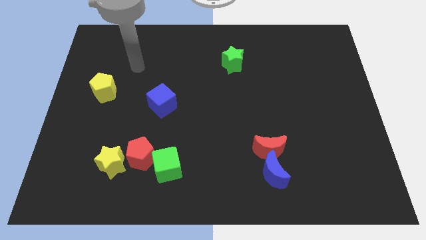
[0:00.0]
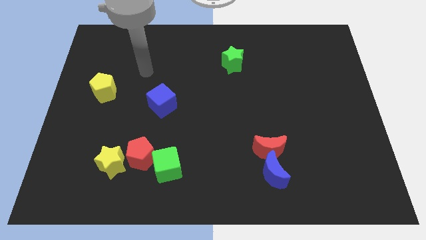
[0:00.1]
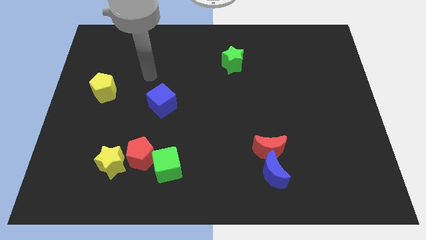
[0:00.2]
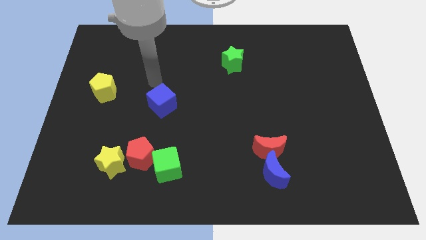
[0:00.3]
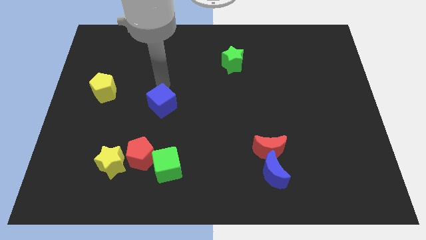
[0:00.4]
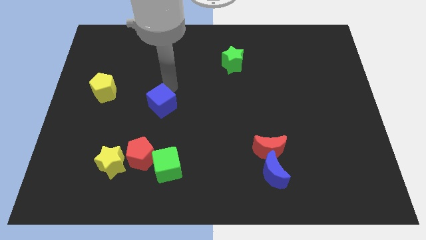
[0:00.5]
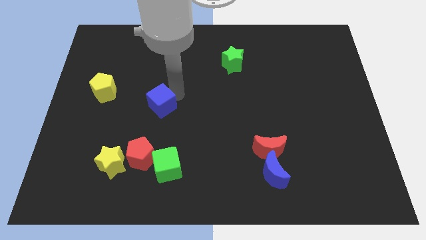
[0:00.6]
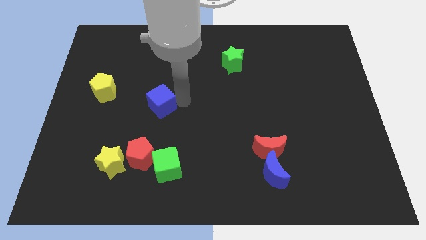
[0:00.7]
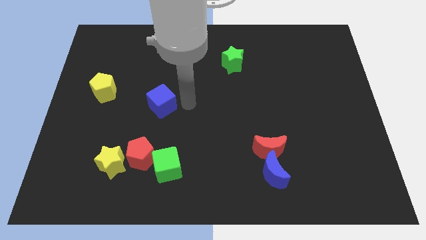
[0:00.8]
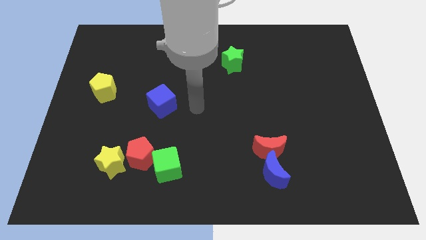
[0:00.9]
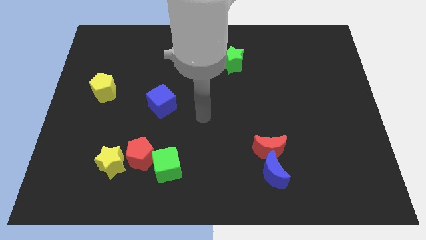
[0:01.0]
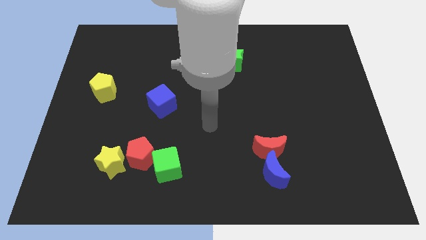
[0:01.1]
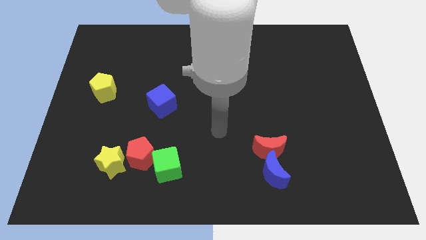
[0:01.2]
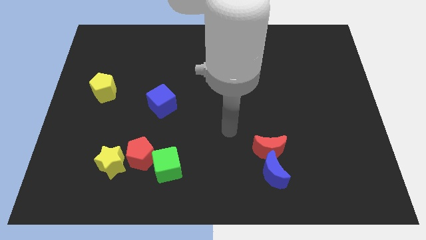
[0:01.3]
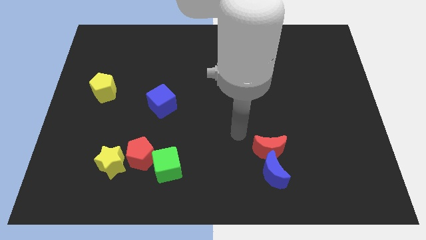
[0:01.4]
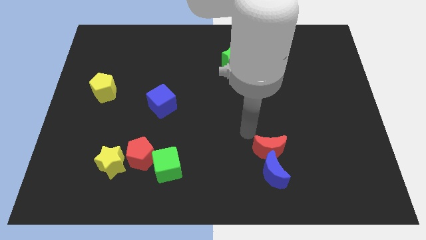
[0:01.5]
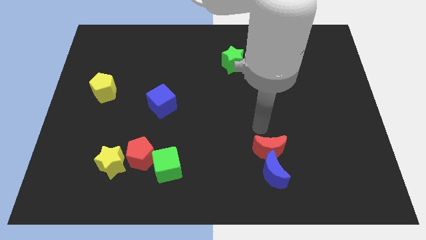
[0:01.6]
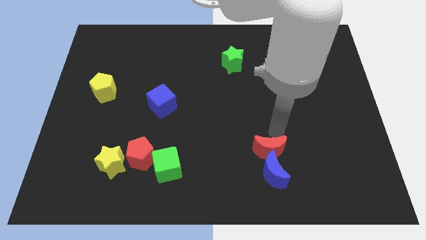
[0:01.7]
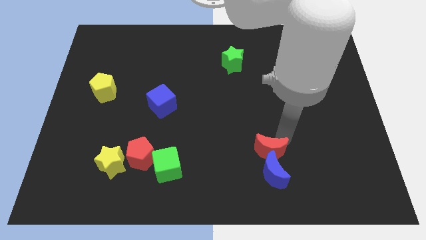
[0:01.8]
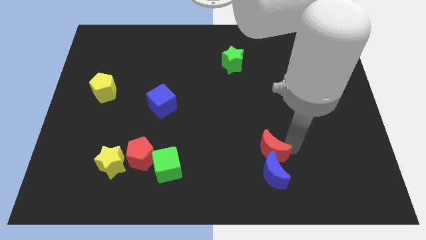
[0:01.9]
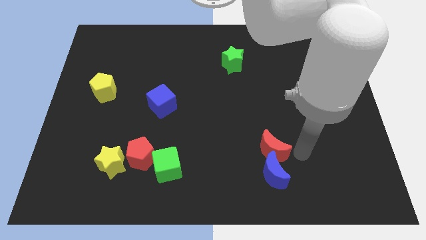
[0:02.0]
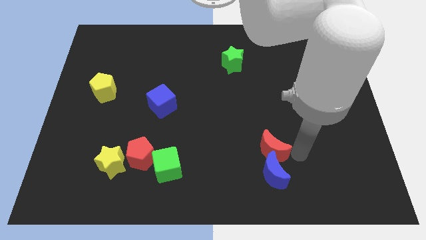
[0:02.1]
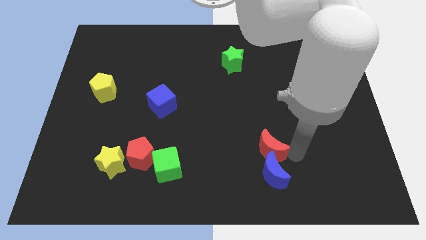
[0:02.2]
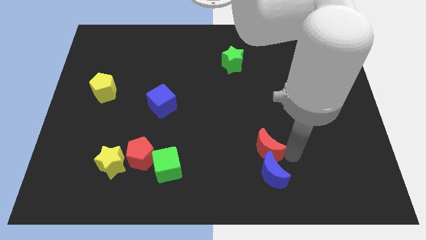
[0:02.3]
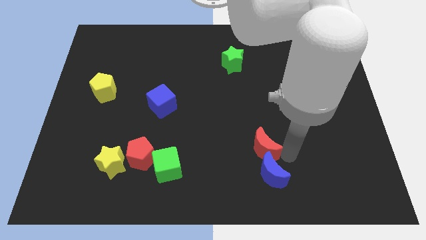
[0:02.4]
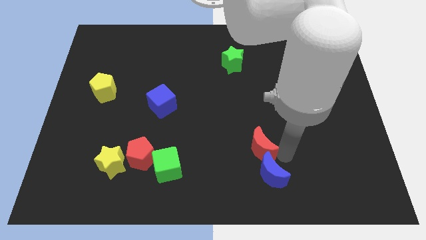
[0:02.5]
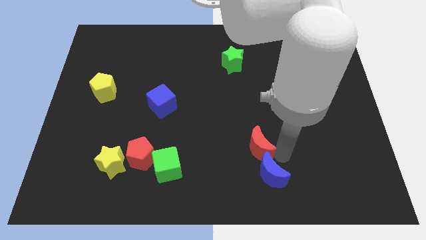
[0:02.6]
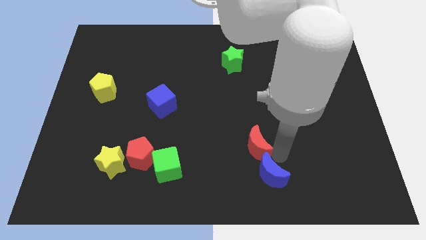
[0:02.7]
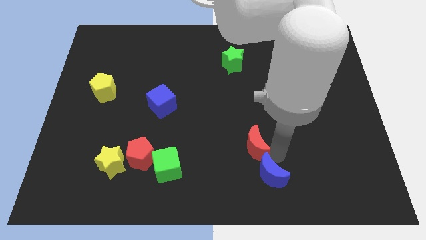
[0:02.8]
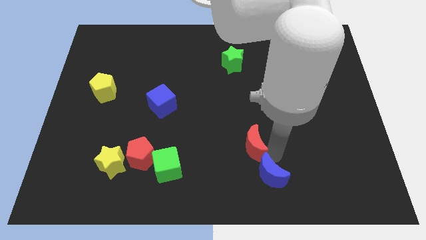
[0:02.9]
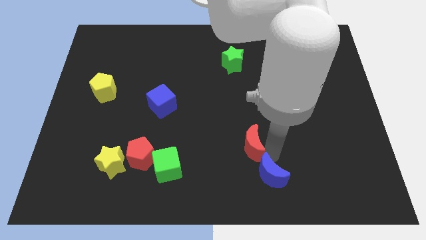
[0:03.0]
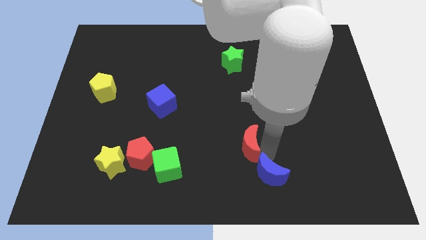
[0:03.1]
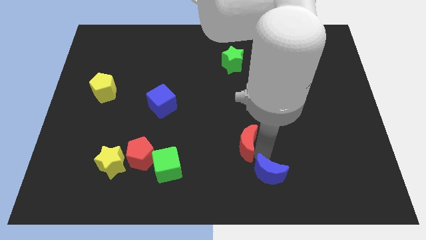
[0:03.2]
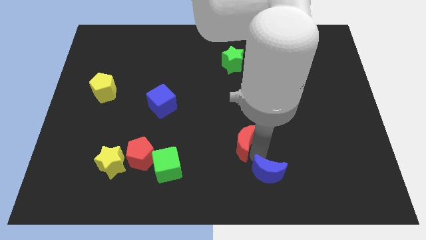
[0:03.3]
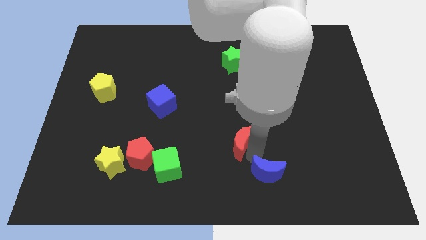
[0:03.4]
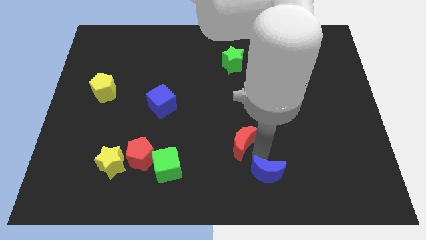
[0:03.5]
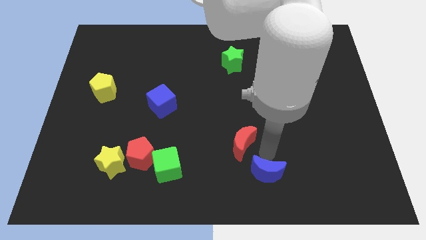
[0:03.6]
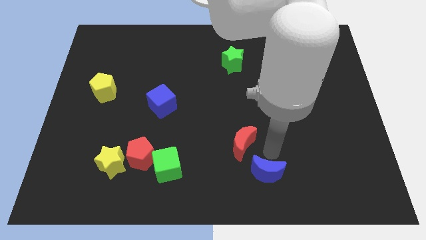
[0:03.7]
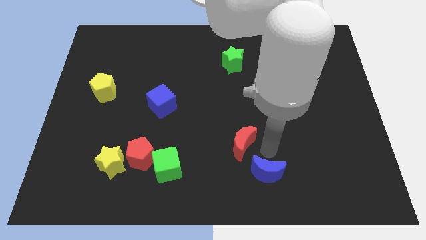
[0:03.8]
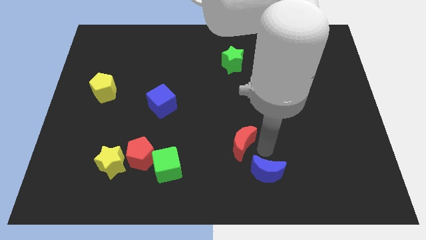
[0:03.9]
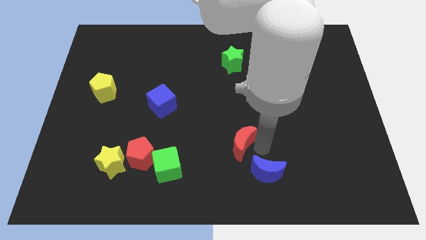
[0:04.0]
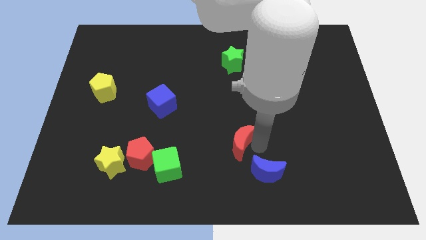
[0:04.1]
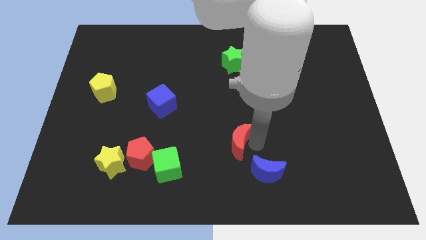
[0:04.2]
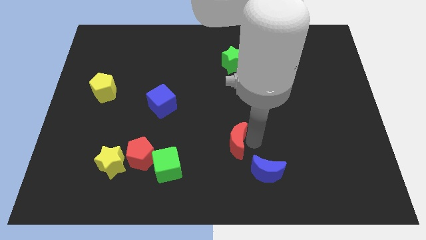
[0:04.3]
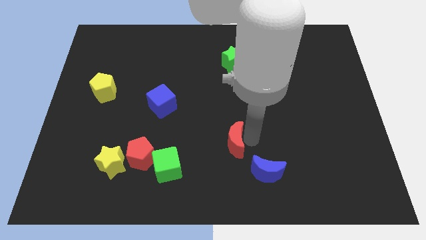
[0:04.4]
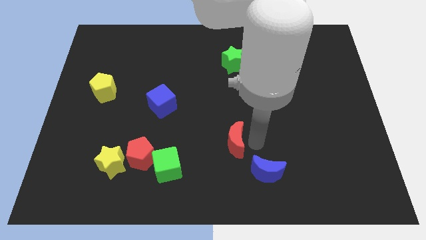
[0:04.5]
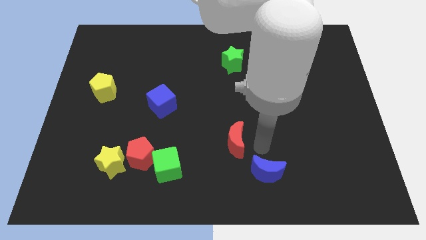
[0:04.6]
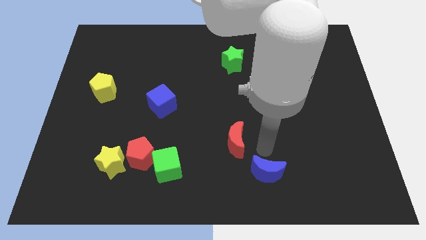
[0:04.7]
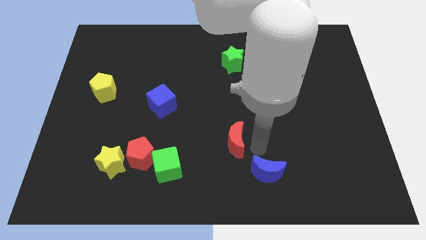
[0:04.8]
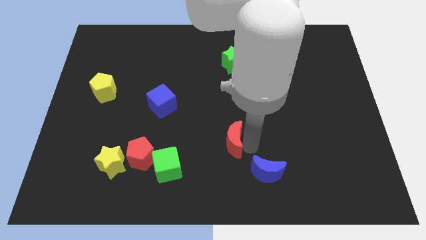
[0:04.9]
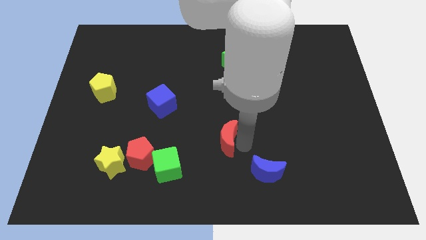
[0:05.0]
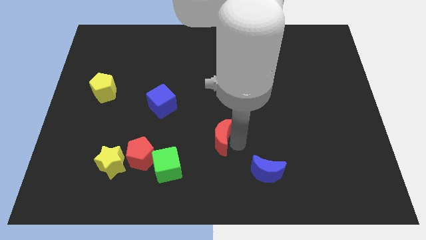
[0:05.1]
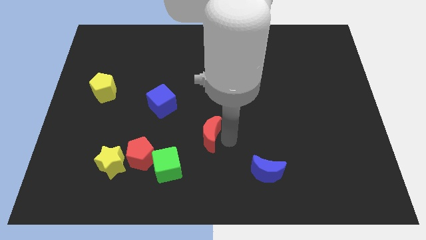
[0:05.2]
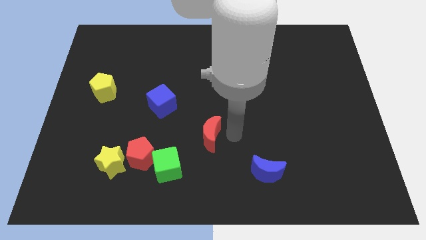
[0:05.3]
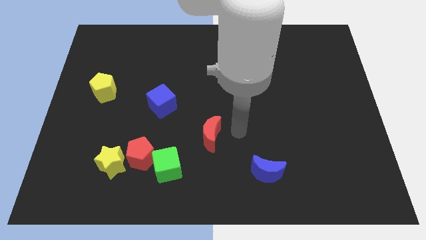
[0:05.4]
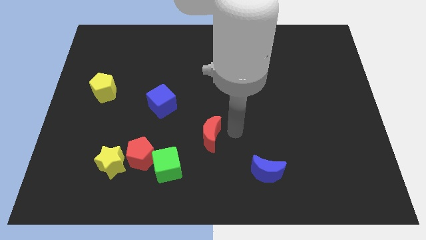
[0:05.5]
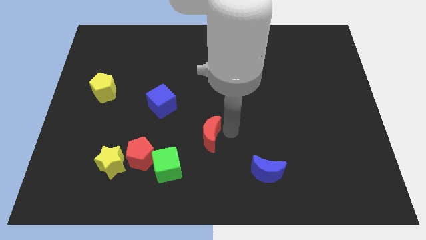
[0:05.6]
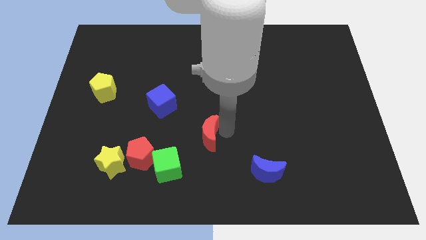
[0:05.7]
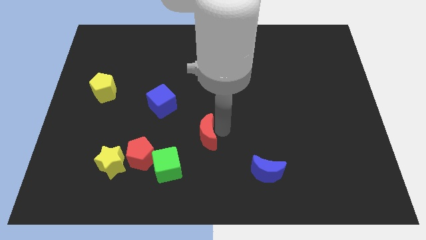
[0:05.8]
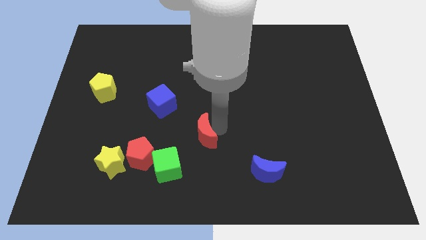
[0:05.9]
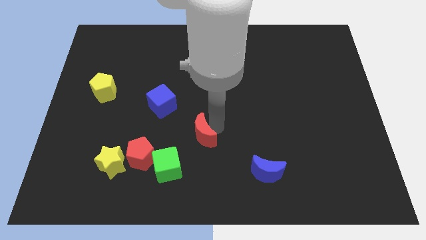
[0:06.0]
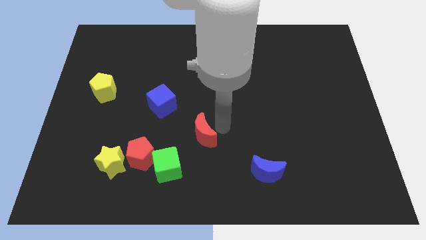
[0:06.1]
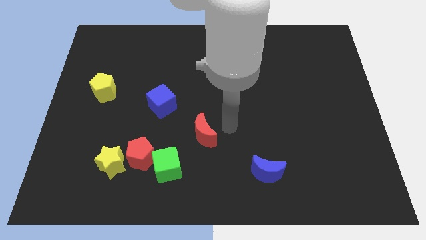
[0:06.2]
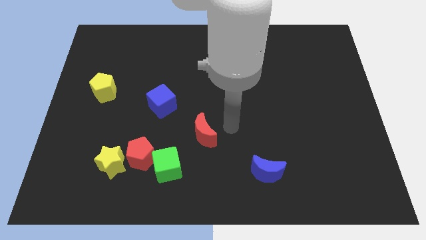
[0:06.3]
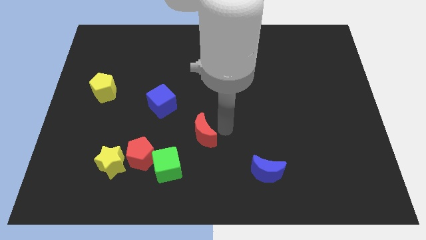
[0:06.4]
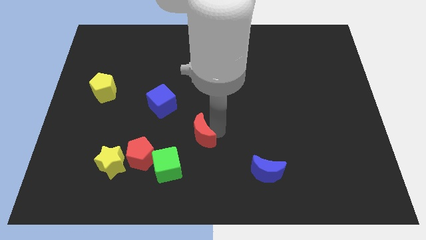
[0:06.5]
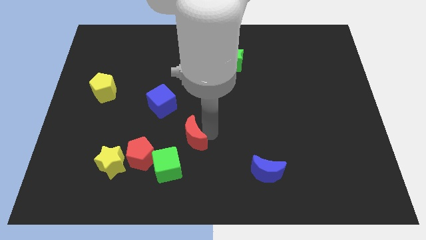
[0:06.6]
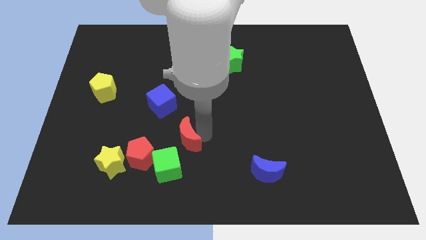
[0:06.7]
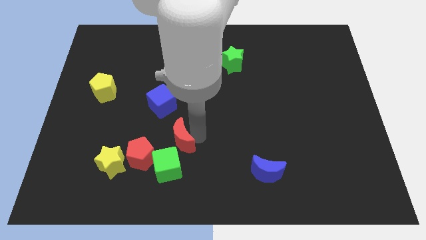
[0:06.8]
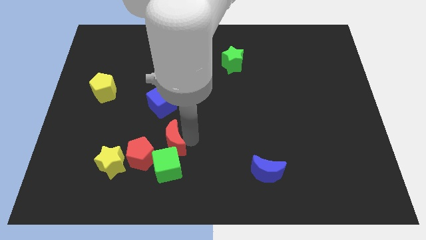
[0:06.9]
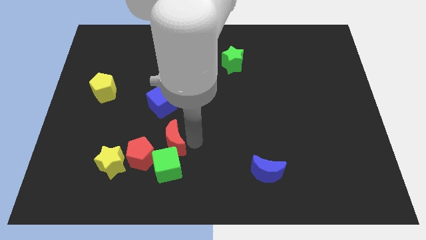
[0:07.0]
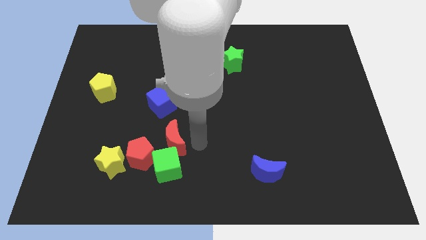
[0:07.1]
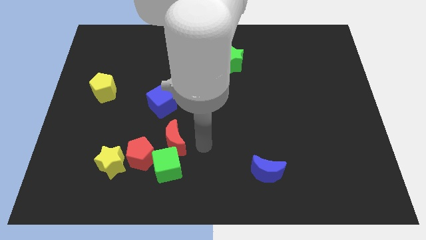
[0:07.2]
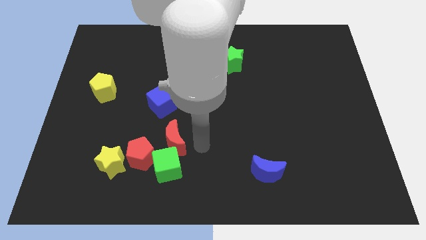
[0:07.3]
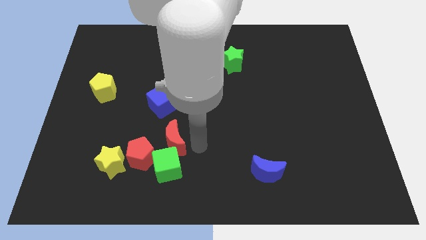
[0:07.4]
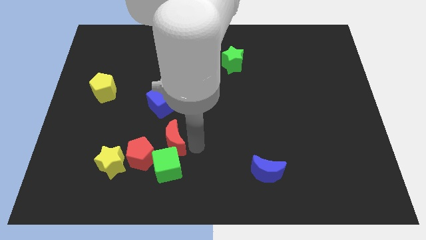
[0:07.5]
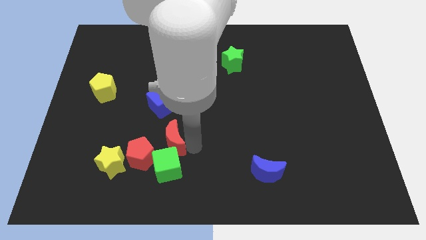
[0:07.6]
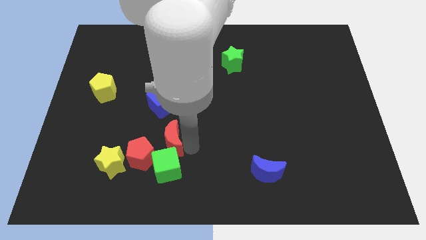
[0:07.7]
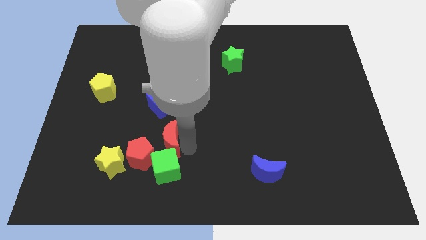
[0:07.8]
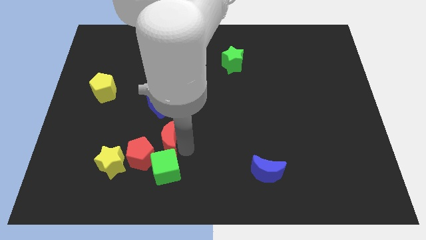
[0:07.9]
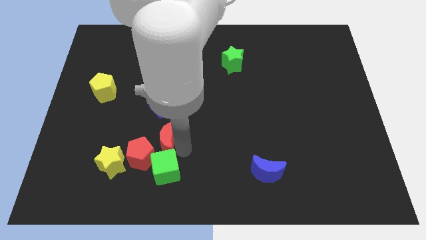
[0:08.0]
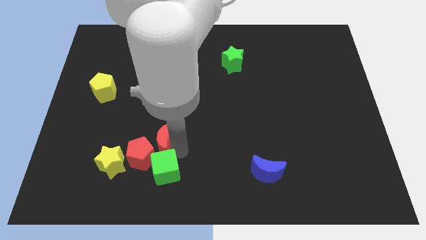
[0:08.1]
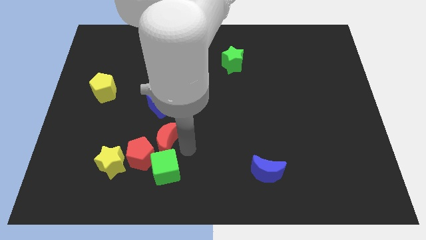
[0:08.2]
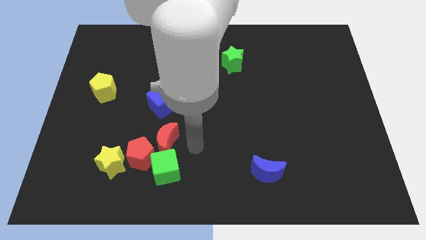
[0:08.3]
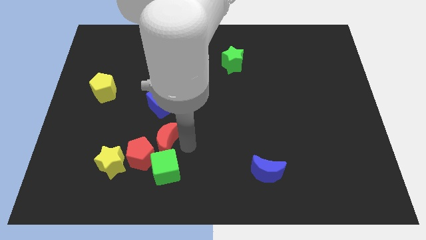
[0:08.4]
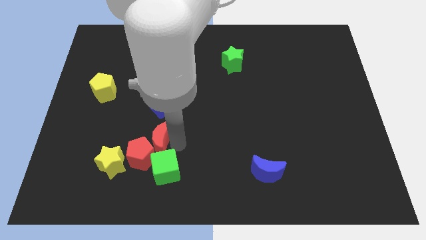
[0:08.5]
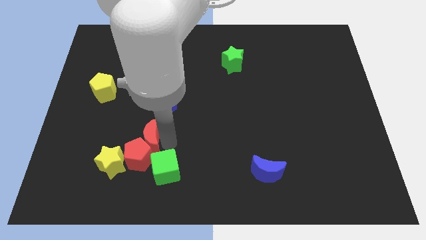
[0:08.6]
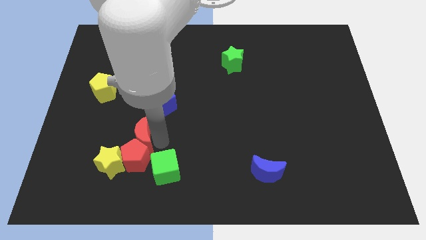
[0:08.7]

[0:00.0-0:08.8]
slide the red moon to the top left side of the red pentagon
